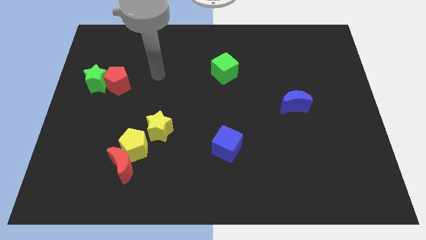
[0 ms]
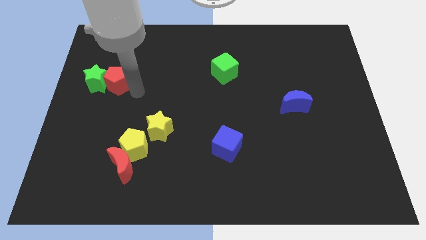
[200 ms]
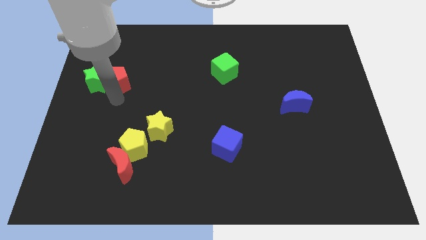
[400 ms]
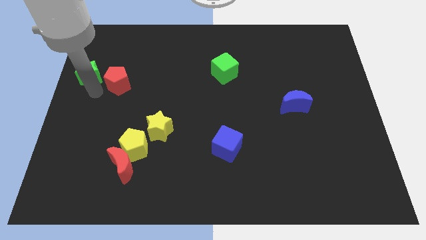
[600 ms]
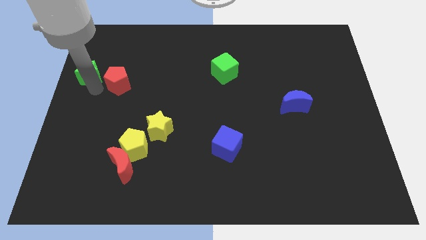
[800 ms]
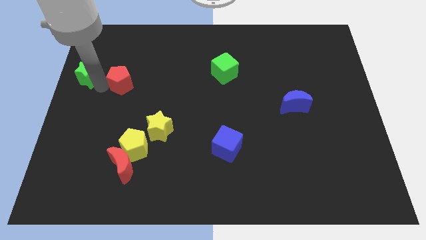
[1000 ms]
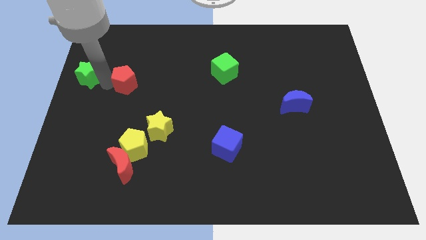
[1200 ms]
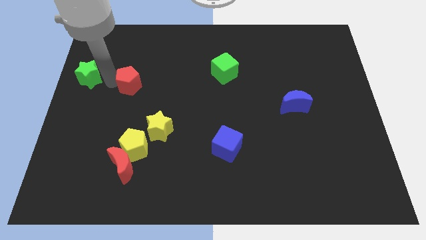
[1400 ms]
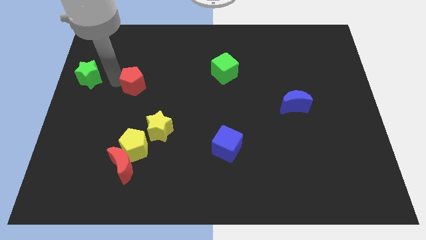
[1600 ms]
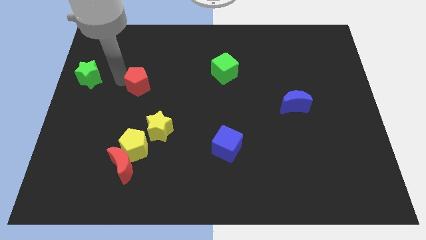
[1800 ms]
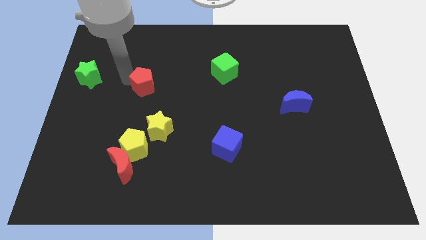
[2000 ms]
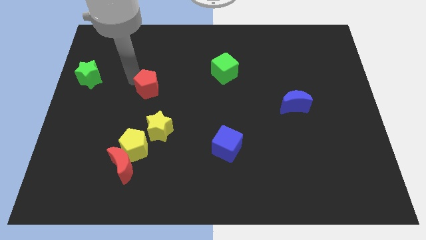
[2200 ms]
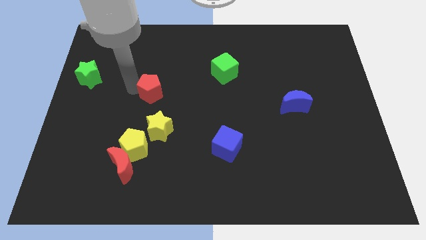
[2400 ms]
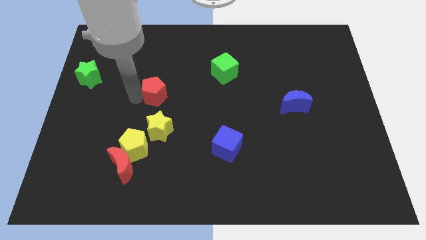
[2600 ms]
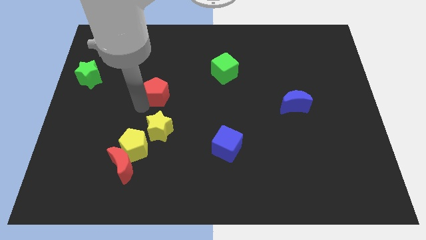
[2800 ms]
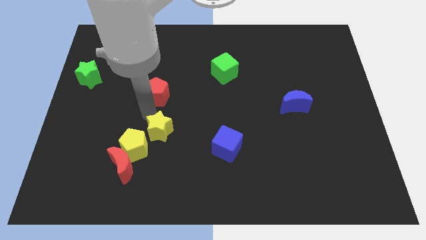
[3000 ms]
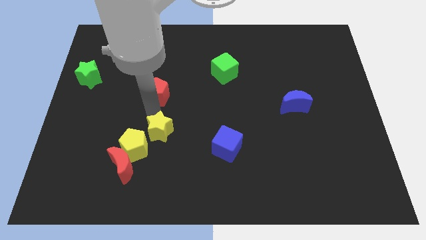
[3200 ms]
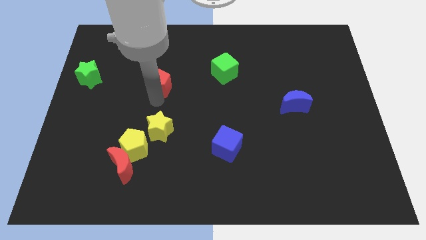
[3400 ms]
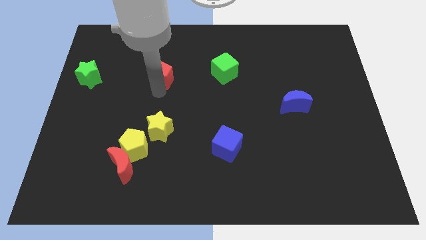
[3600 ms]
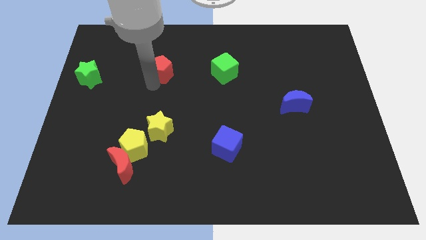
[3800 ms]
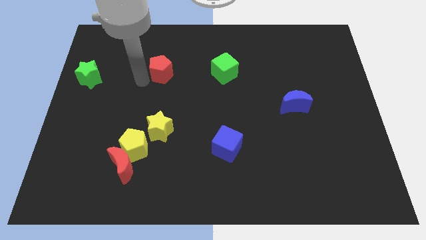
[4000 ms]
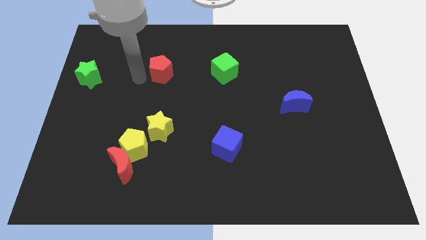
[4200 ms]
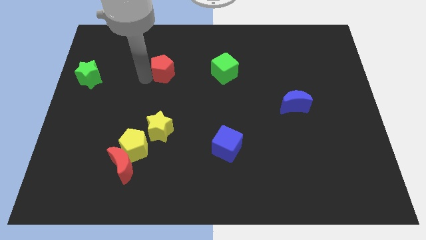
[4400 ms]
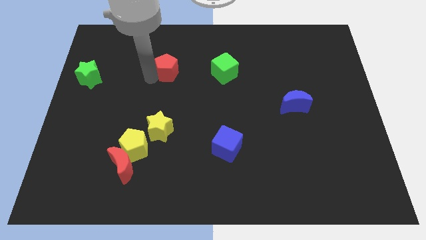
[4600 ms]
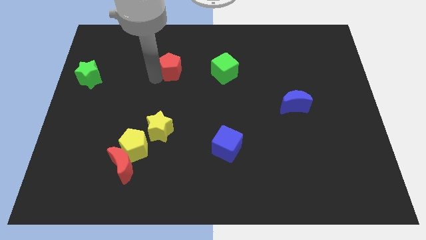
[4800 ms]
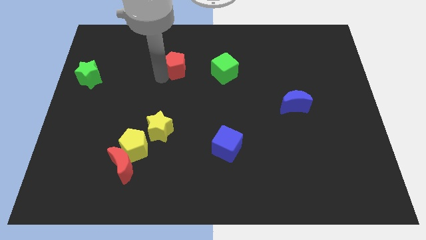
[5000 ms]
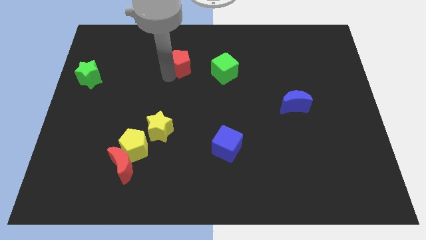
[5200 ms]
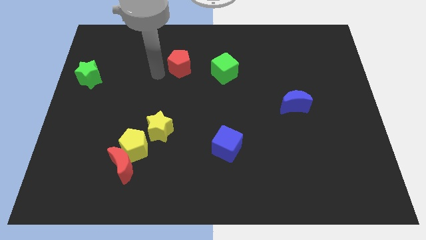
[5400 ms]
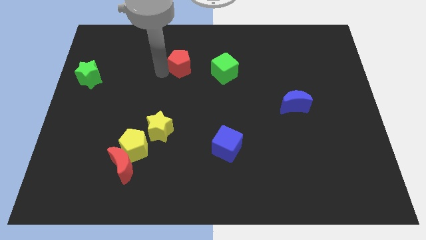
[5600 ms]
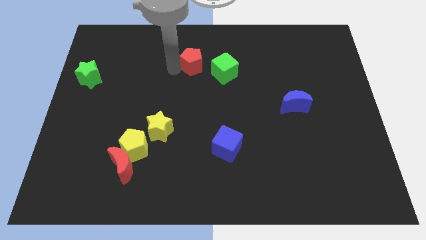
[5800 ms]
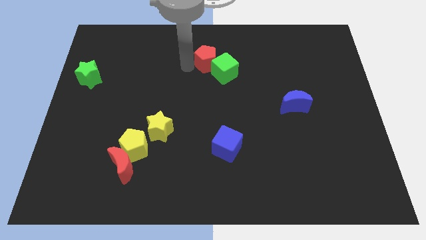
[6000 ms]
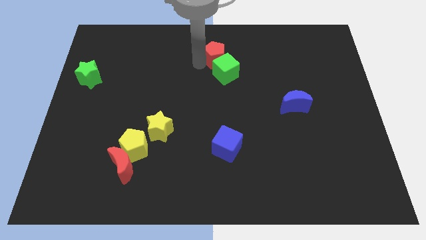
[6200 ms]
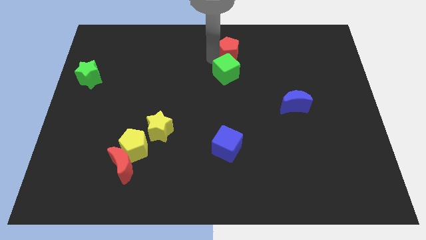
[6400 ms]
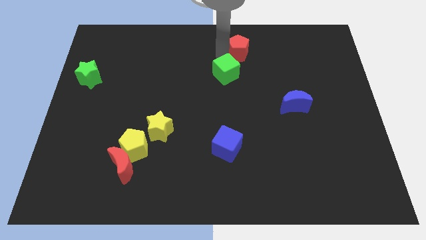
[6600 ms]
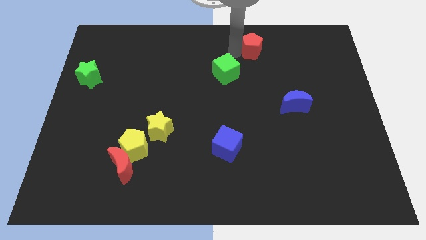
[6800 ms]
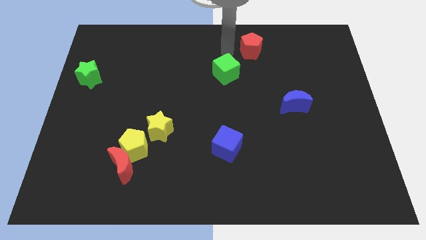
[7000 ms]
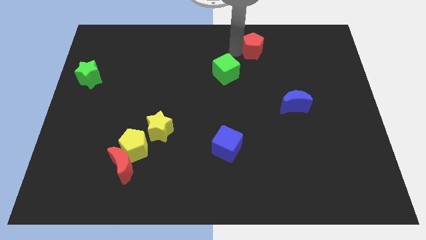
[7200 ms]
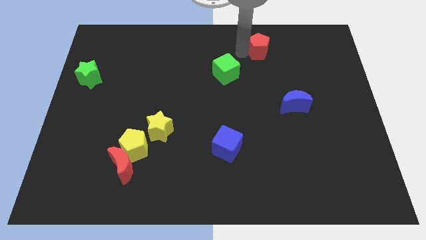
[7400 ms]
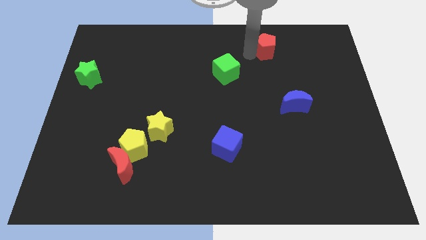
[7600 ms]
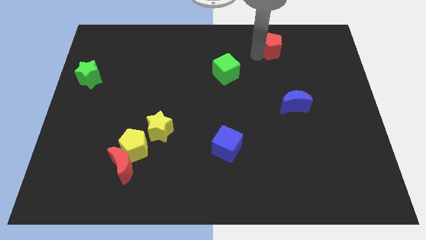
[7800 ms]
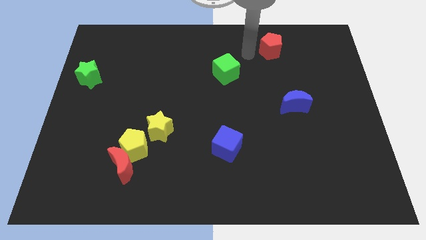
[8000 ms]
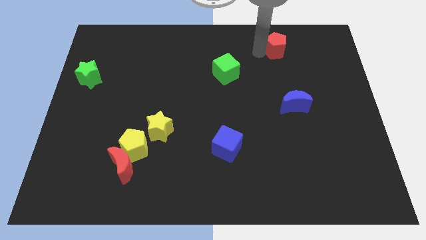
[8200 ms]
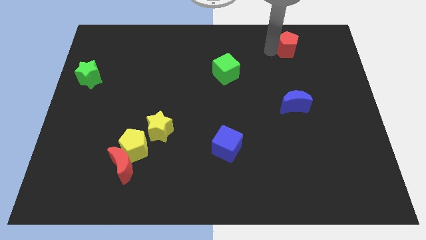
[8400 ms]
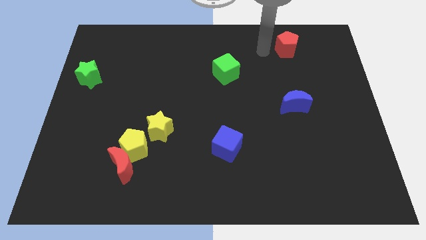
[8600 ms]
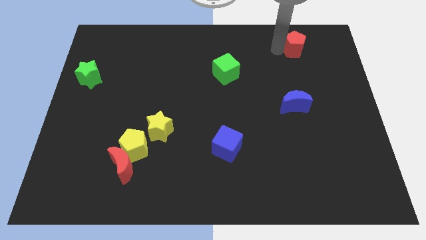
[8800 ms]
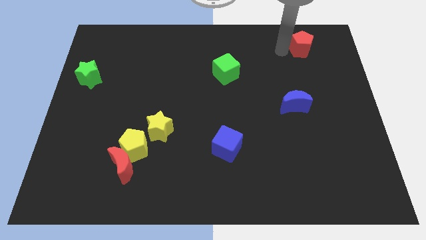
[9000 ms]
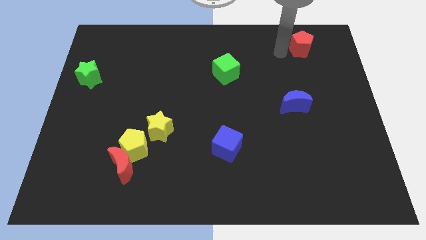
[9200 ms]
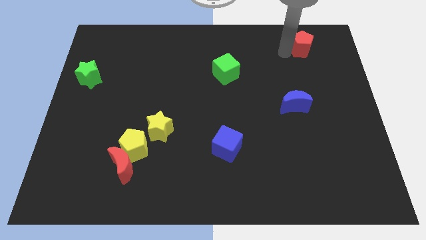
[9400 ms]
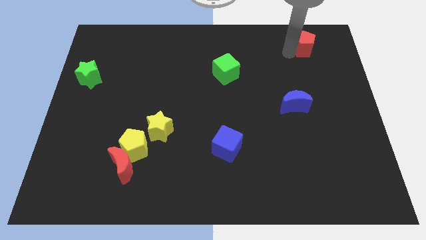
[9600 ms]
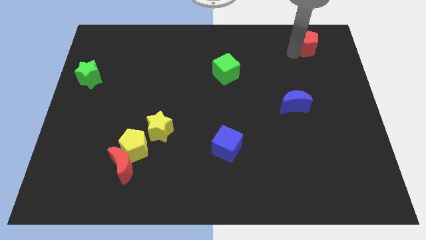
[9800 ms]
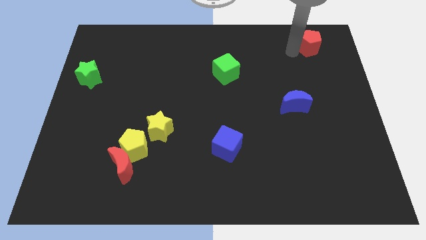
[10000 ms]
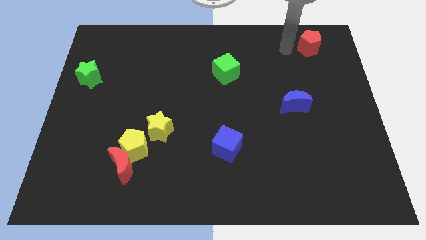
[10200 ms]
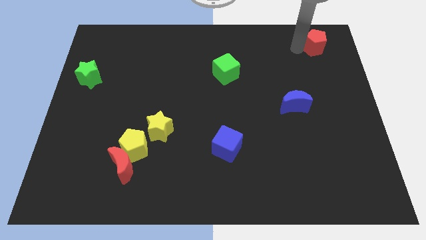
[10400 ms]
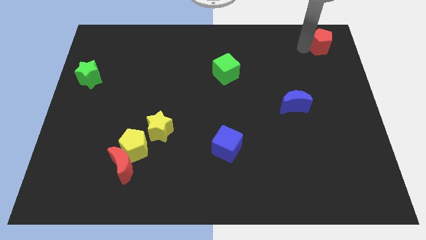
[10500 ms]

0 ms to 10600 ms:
move the red pentagon to the upper right corner

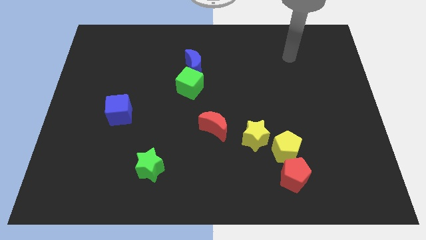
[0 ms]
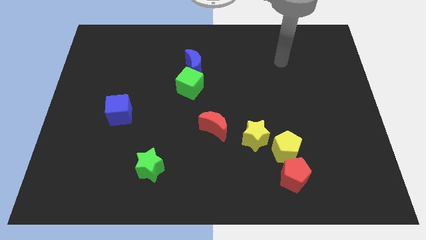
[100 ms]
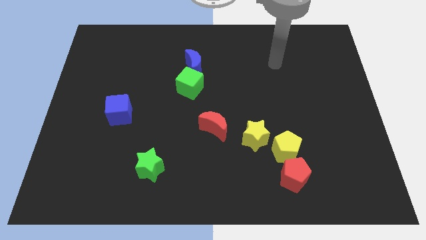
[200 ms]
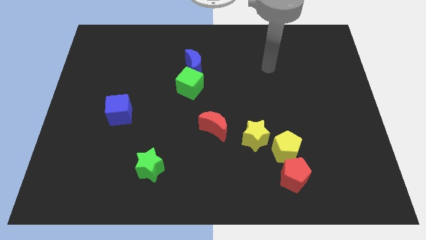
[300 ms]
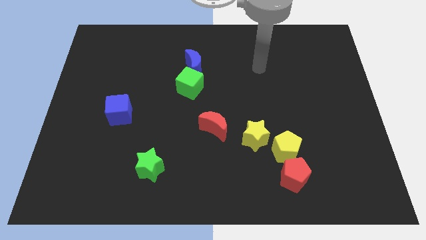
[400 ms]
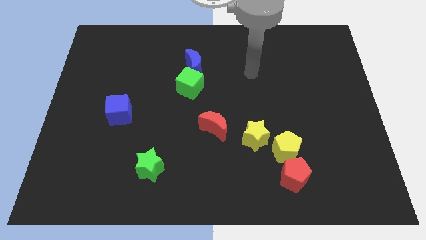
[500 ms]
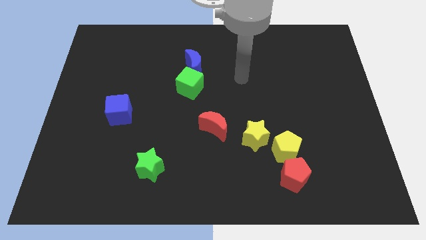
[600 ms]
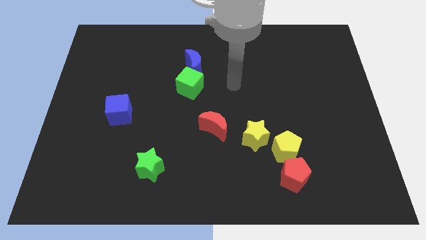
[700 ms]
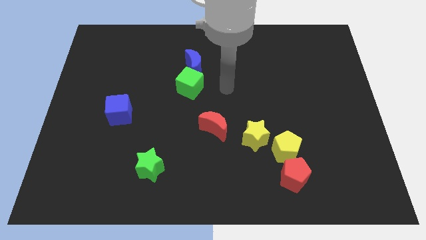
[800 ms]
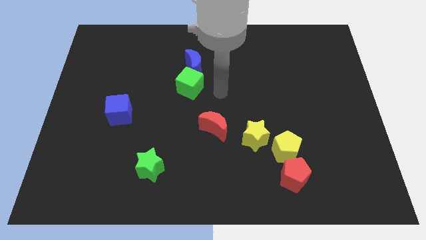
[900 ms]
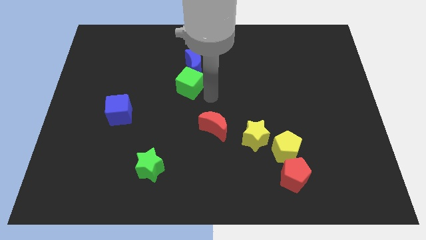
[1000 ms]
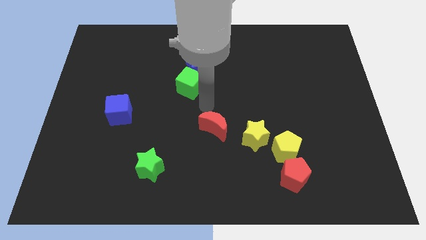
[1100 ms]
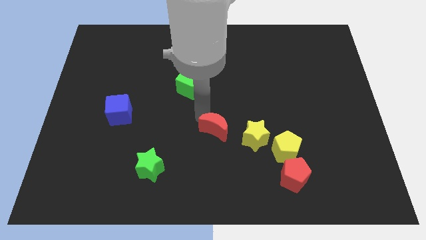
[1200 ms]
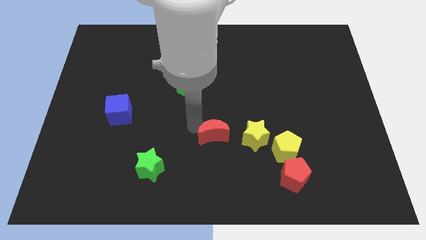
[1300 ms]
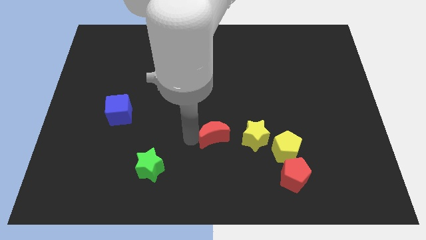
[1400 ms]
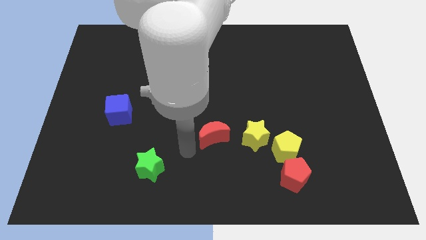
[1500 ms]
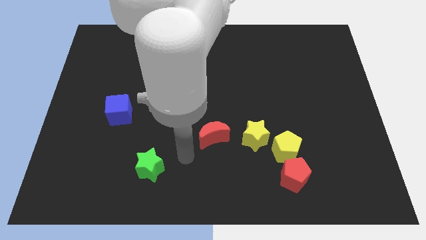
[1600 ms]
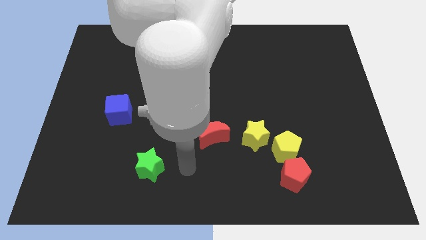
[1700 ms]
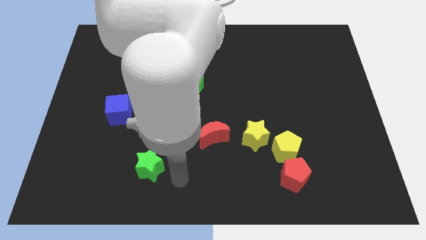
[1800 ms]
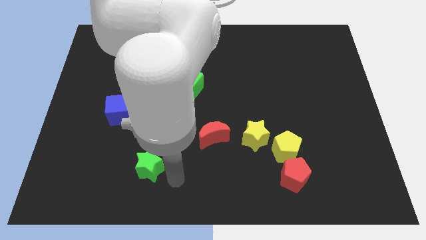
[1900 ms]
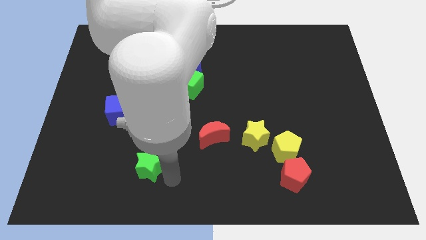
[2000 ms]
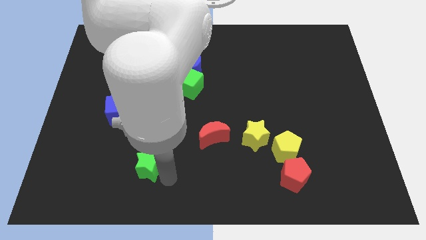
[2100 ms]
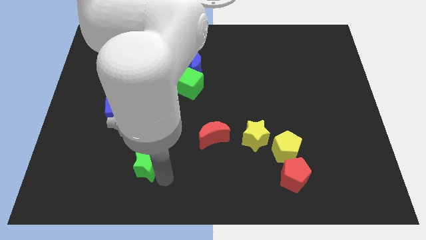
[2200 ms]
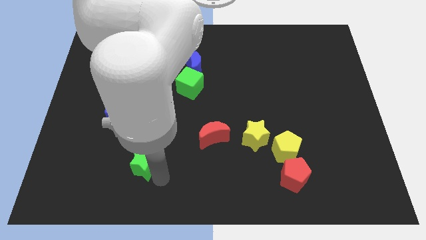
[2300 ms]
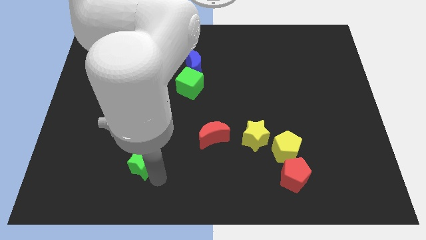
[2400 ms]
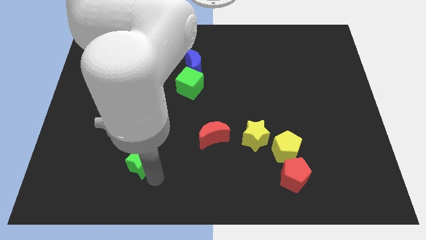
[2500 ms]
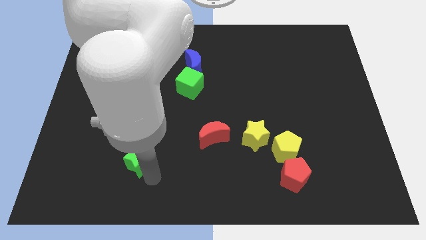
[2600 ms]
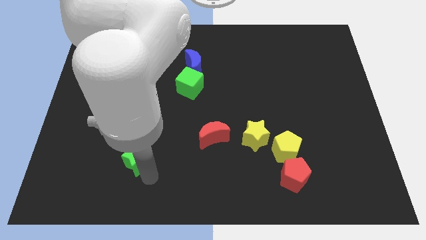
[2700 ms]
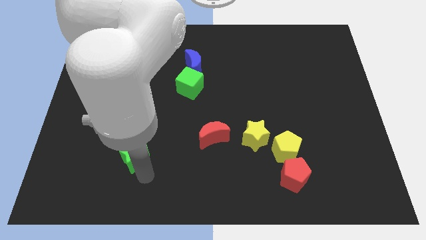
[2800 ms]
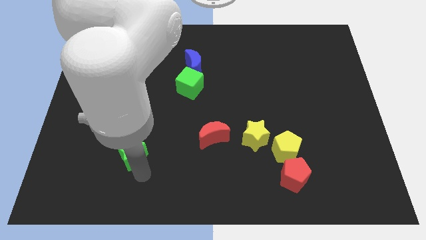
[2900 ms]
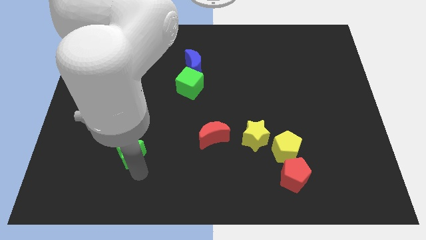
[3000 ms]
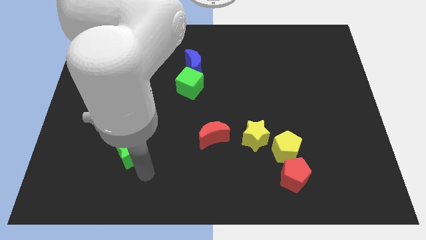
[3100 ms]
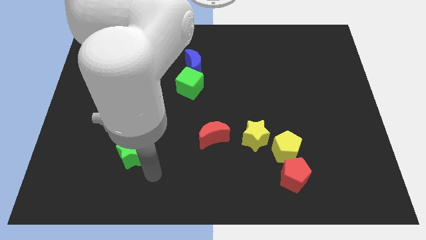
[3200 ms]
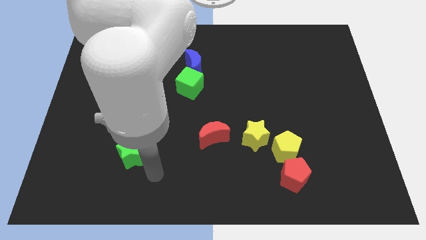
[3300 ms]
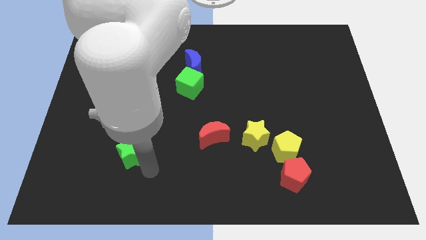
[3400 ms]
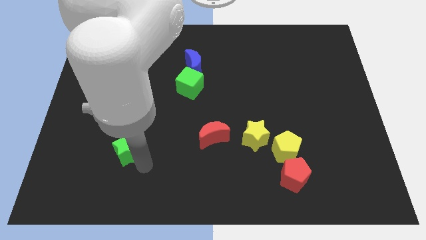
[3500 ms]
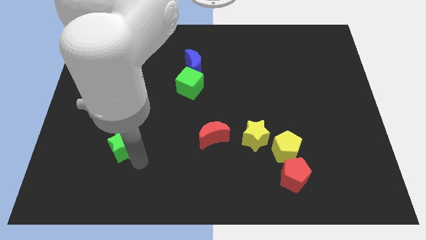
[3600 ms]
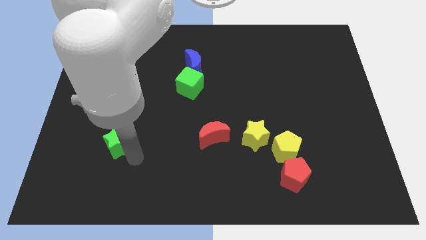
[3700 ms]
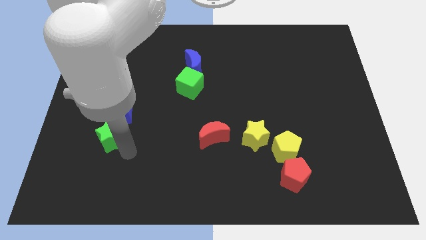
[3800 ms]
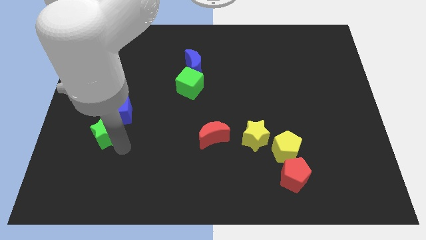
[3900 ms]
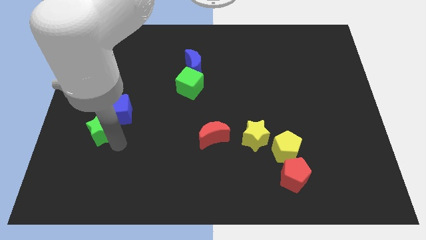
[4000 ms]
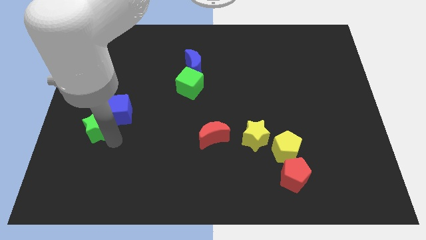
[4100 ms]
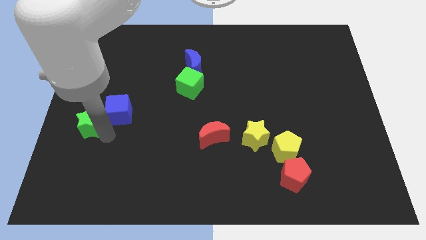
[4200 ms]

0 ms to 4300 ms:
slide the green star to the left side
